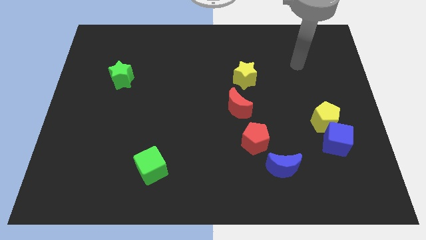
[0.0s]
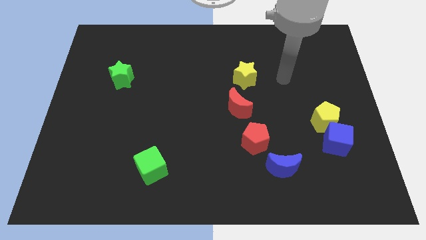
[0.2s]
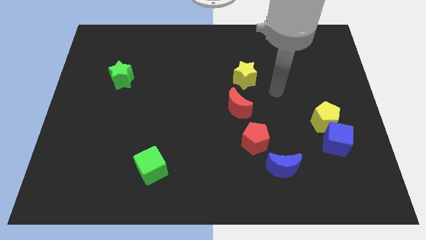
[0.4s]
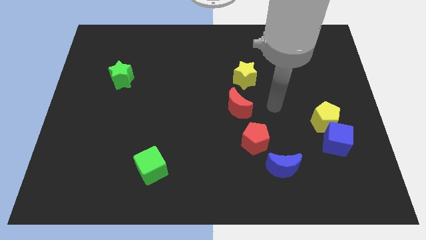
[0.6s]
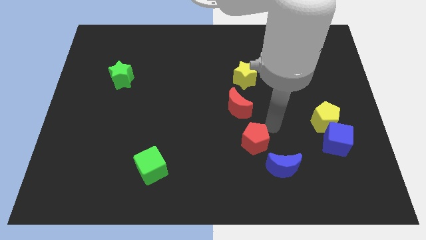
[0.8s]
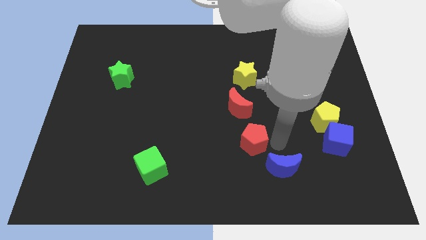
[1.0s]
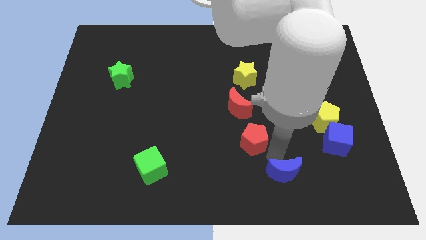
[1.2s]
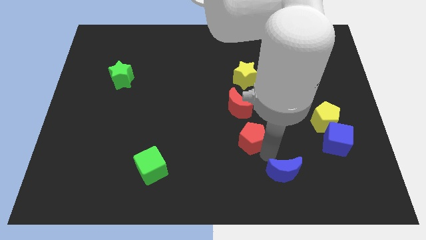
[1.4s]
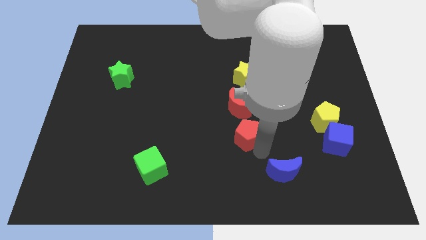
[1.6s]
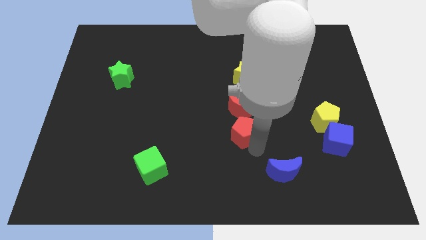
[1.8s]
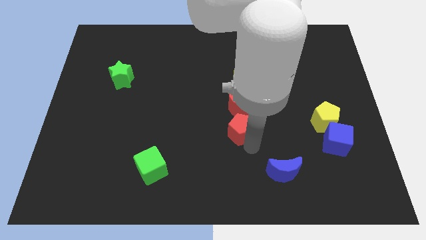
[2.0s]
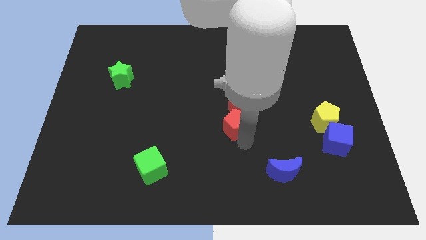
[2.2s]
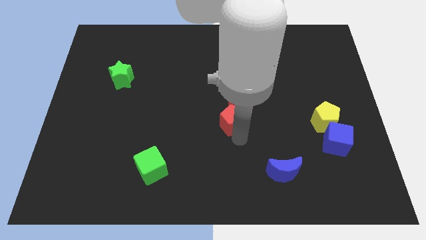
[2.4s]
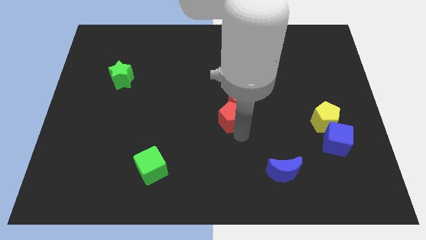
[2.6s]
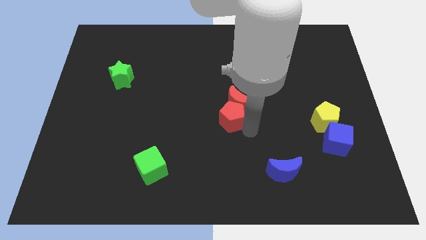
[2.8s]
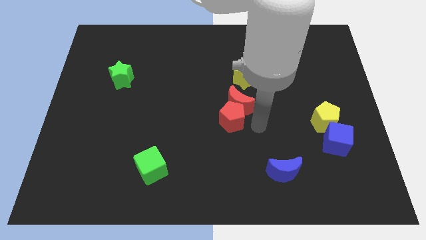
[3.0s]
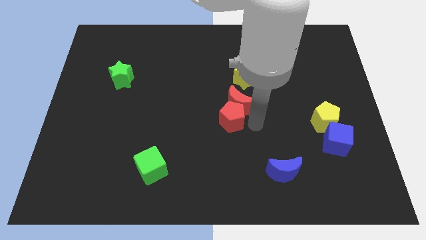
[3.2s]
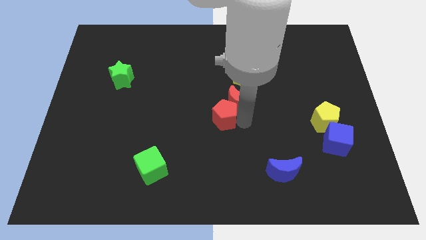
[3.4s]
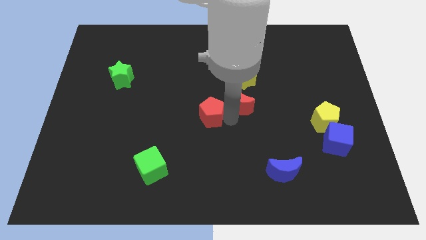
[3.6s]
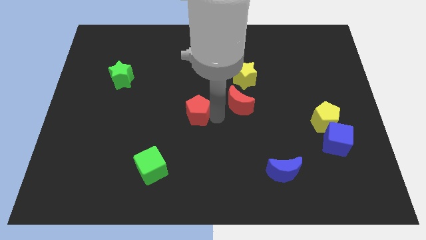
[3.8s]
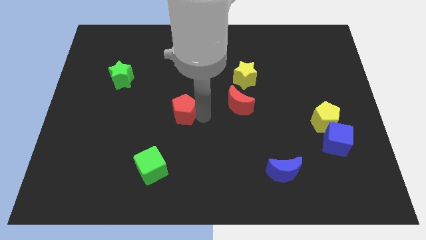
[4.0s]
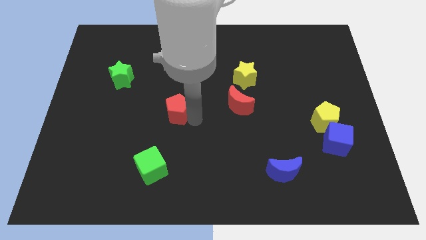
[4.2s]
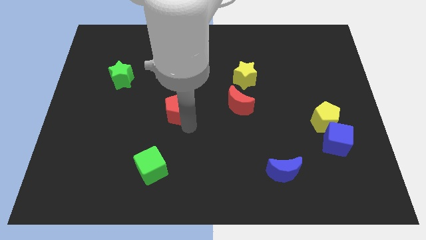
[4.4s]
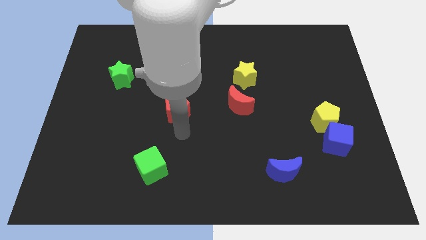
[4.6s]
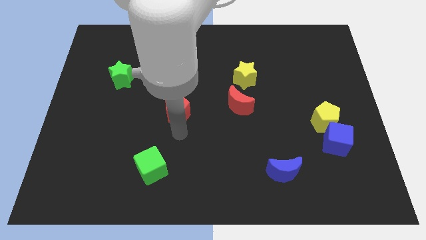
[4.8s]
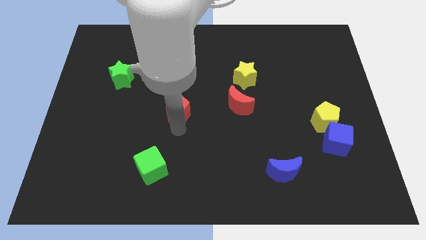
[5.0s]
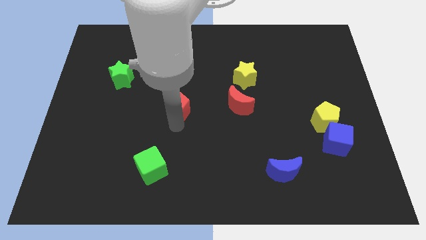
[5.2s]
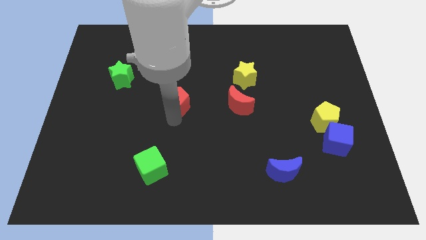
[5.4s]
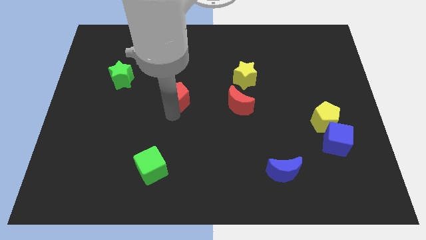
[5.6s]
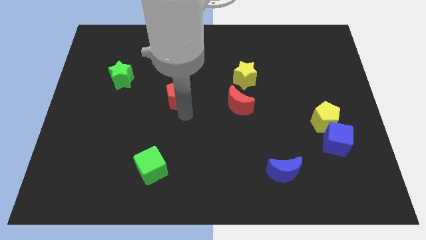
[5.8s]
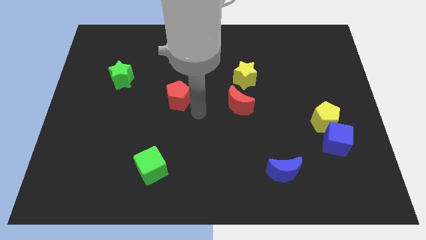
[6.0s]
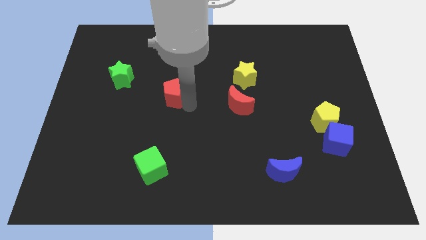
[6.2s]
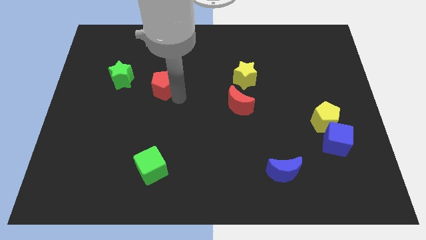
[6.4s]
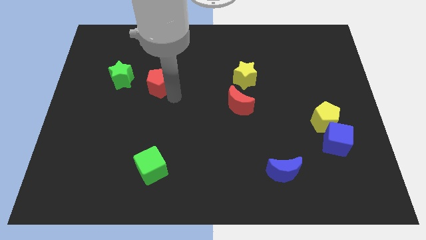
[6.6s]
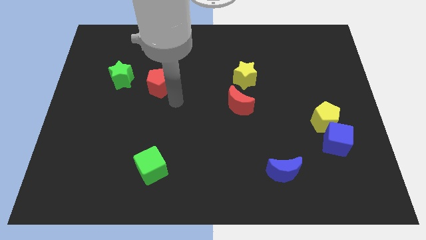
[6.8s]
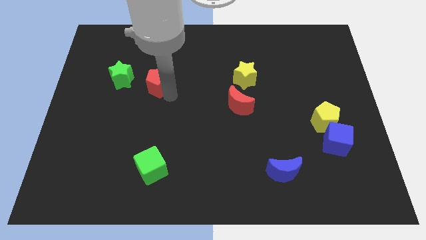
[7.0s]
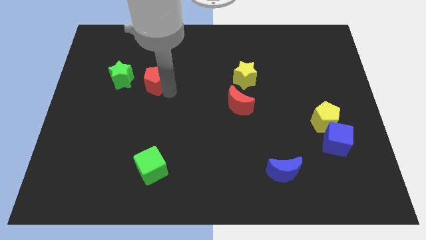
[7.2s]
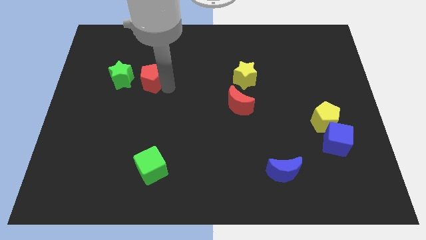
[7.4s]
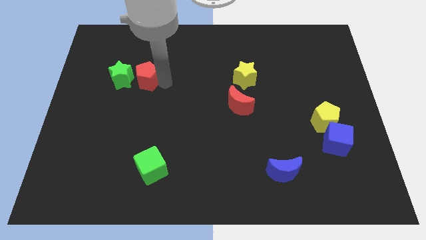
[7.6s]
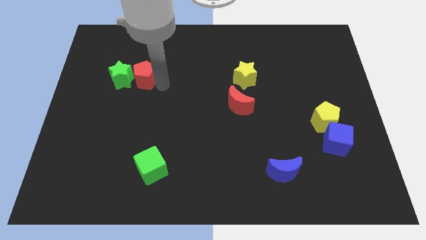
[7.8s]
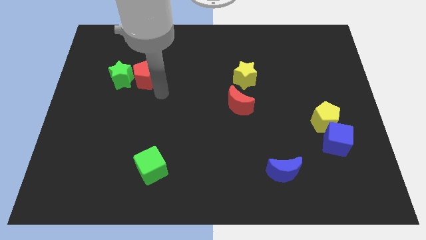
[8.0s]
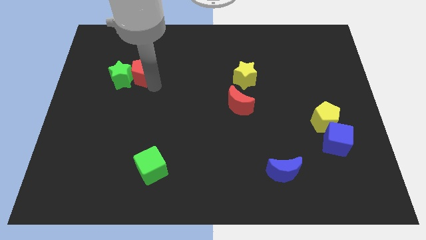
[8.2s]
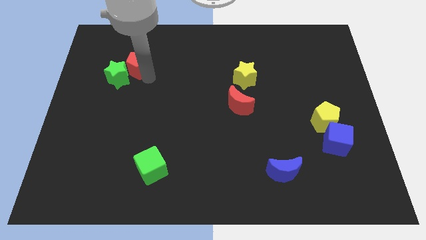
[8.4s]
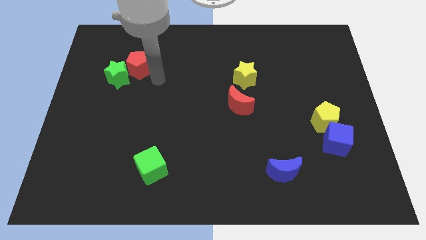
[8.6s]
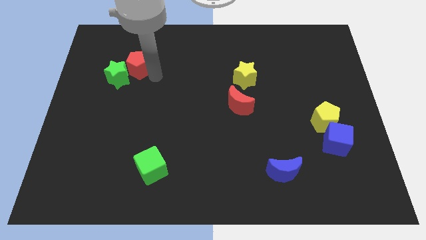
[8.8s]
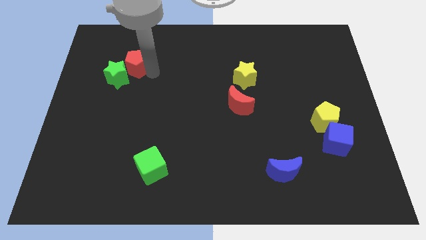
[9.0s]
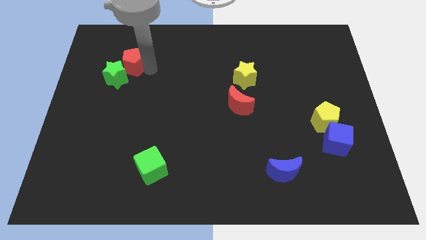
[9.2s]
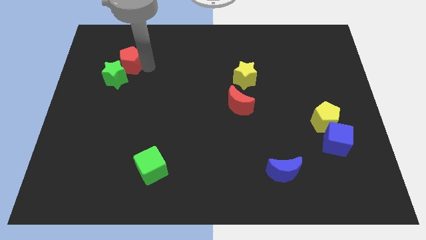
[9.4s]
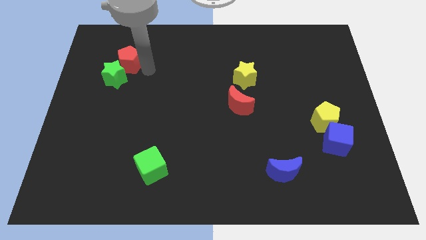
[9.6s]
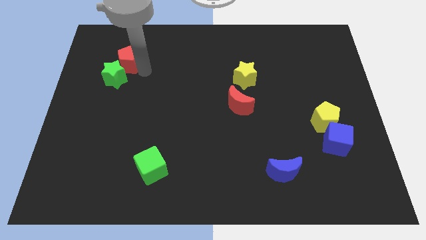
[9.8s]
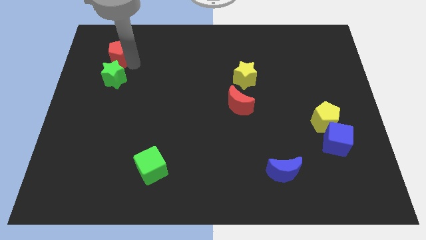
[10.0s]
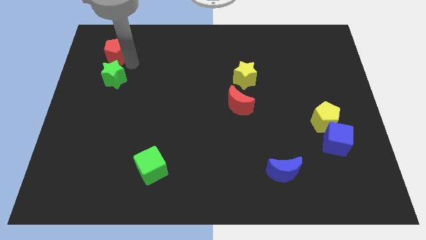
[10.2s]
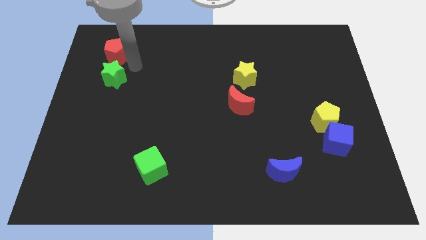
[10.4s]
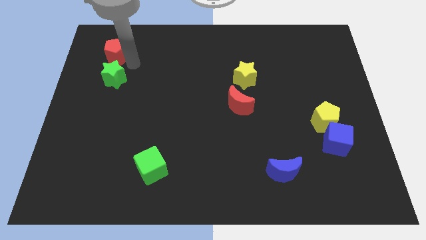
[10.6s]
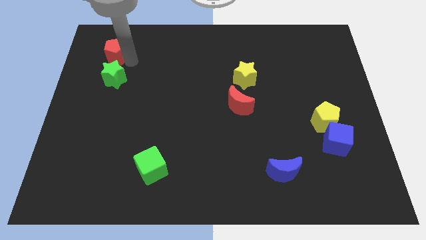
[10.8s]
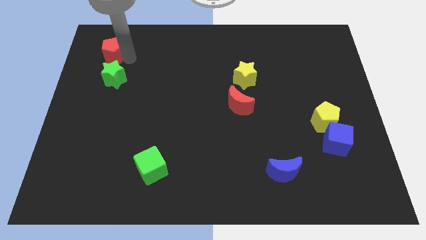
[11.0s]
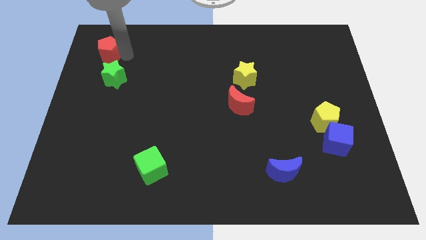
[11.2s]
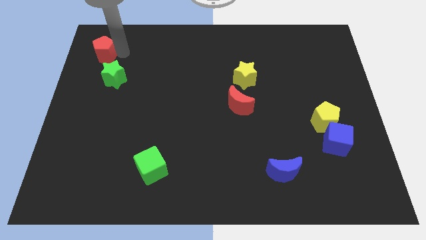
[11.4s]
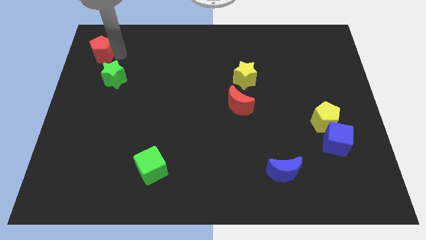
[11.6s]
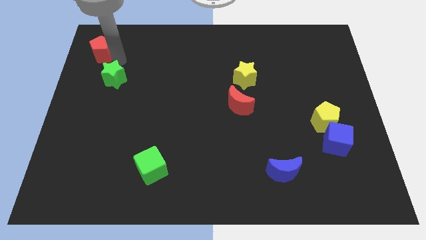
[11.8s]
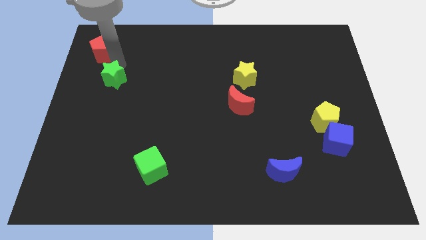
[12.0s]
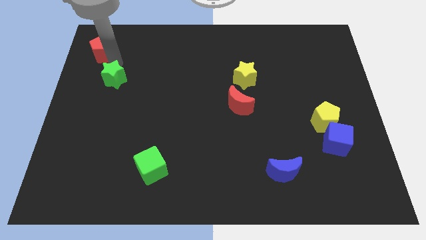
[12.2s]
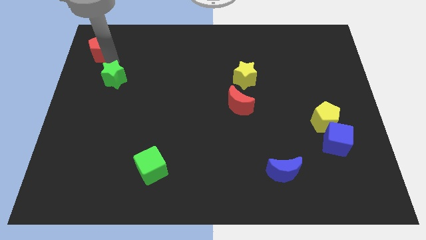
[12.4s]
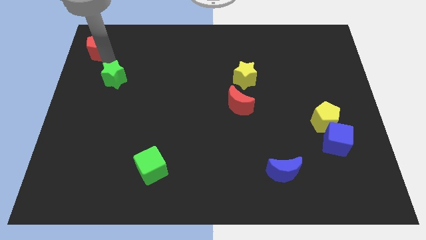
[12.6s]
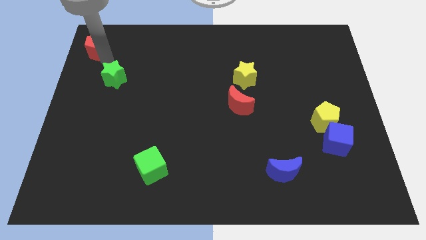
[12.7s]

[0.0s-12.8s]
move the red pentagon to the top left
